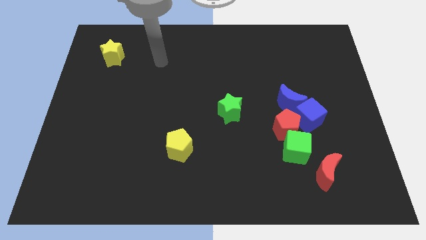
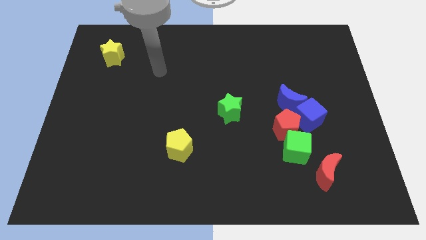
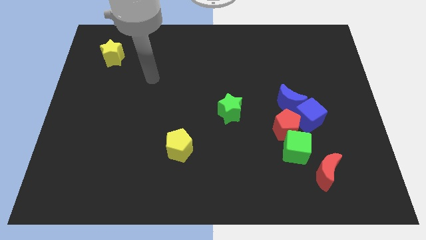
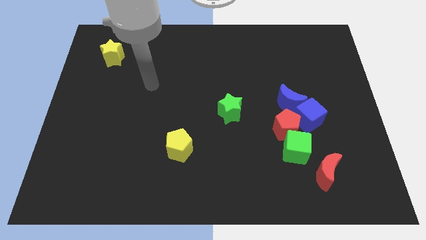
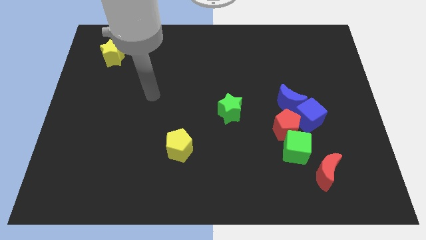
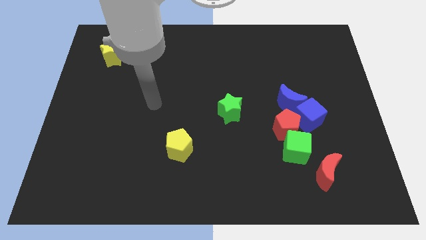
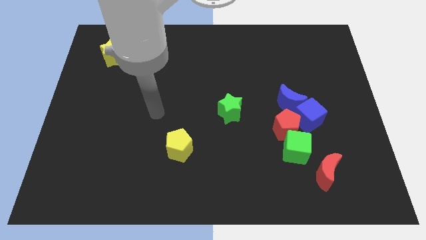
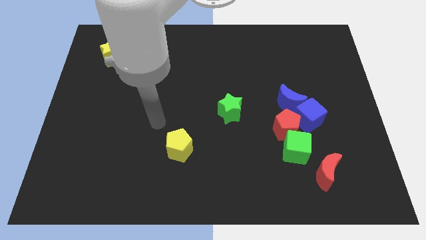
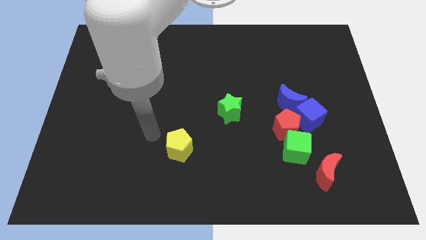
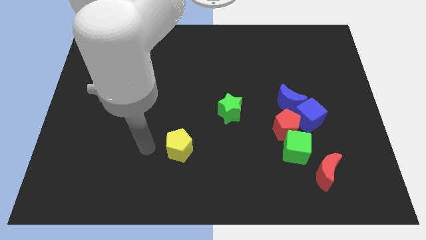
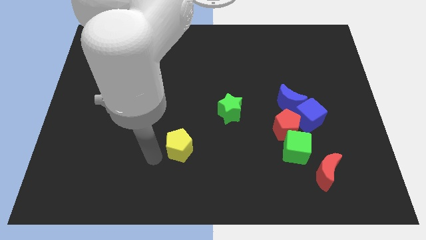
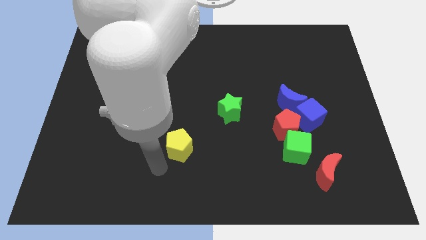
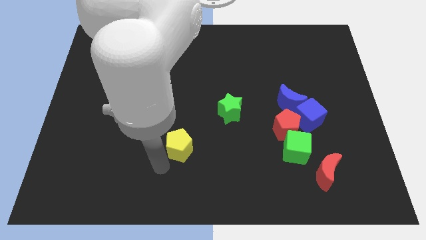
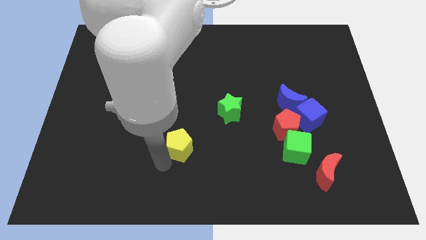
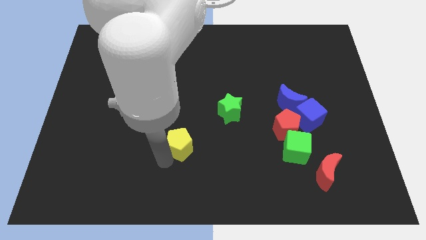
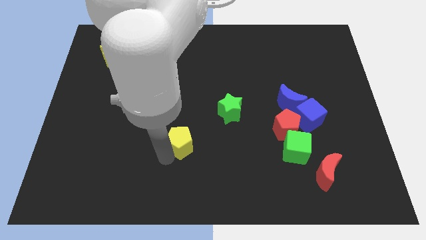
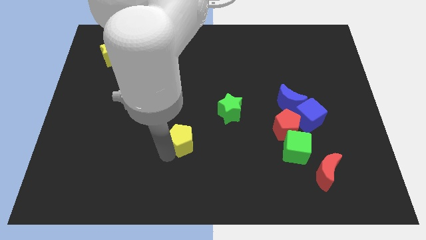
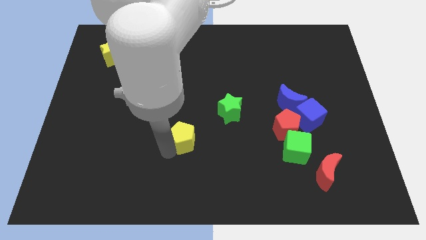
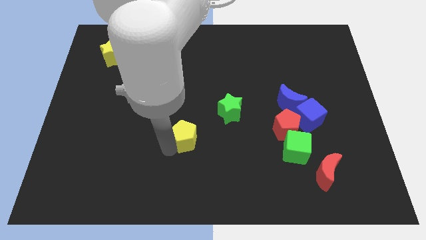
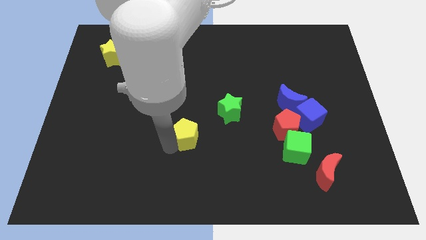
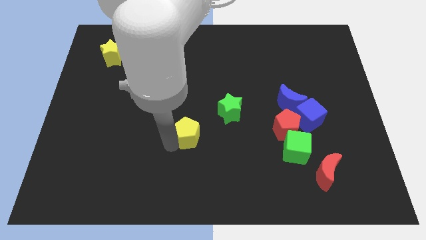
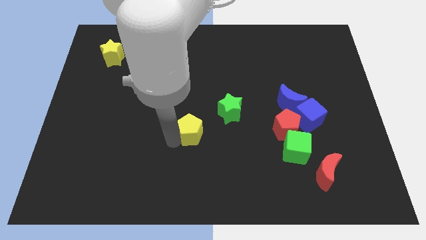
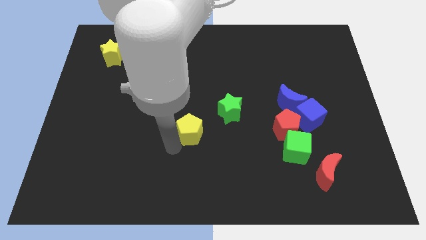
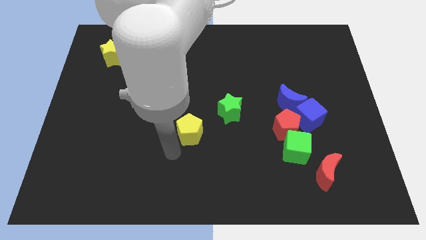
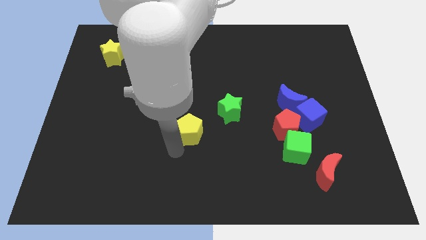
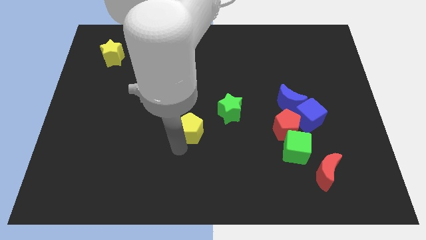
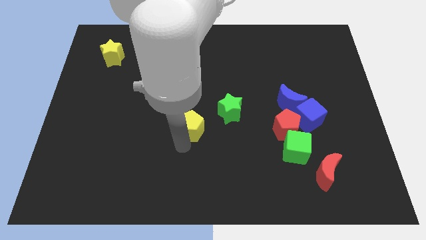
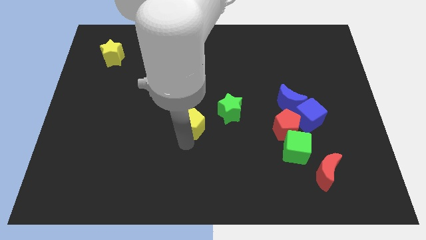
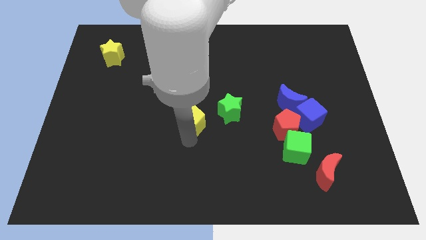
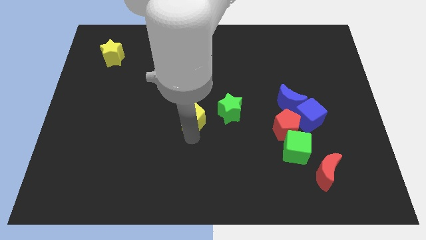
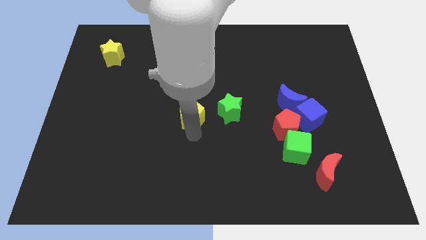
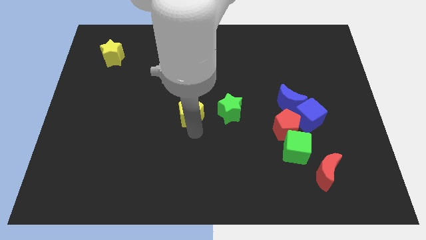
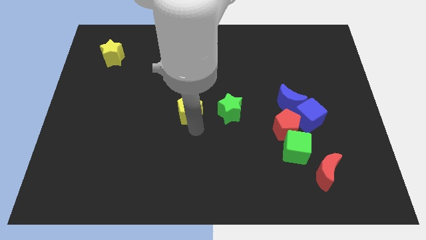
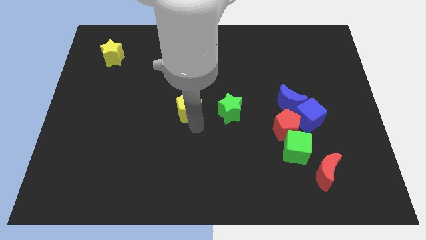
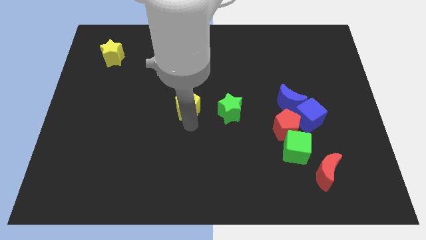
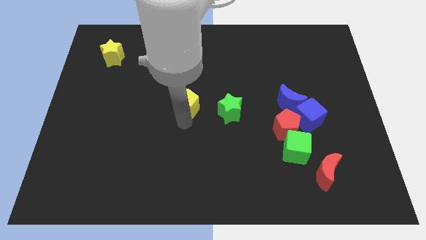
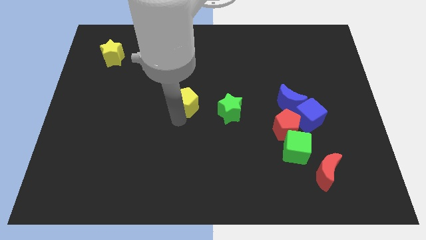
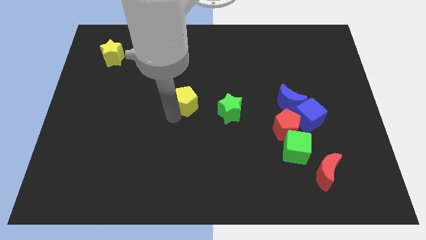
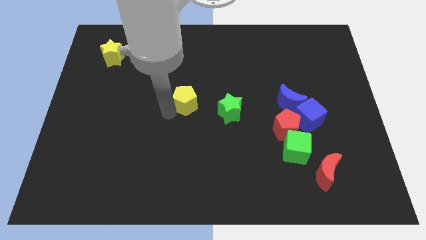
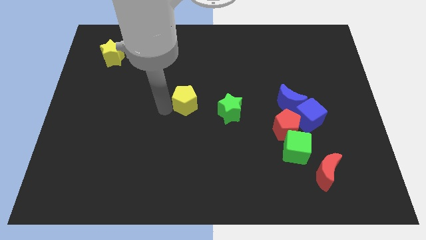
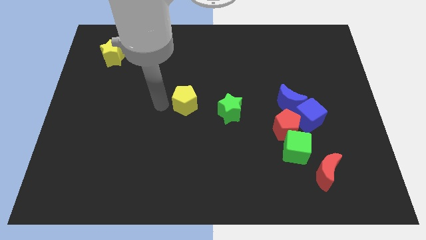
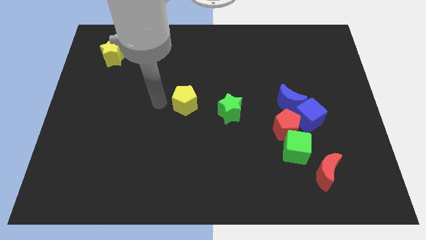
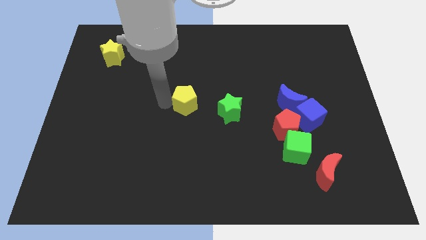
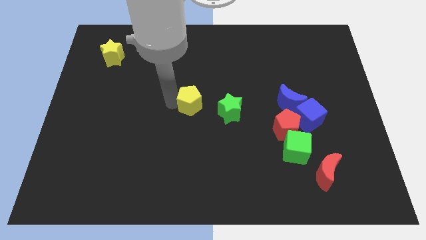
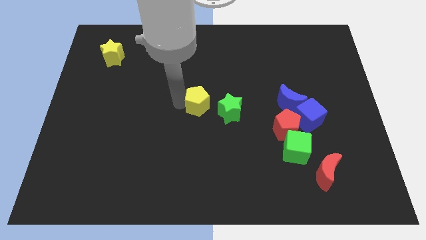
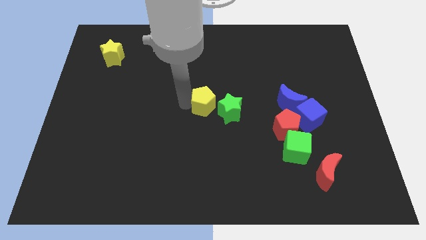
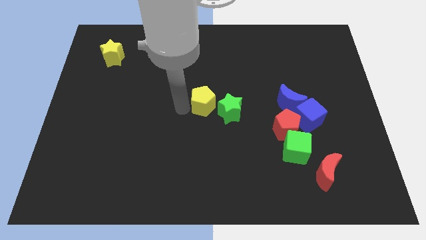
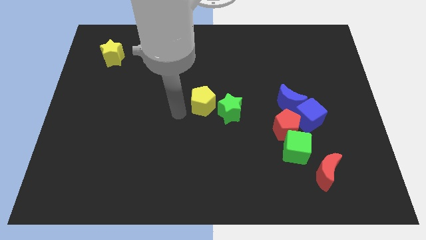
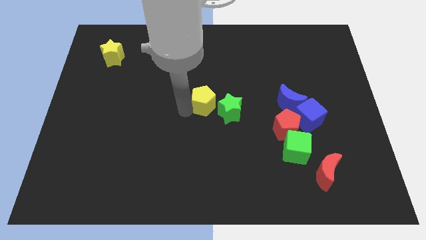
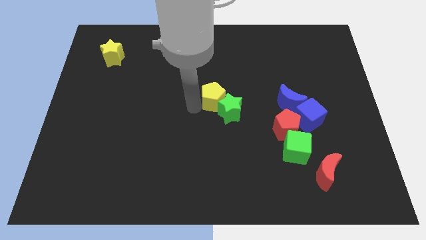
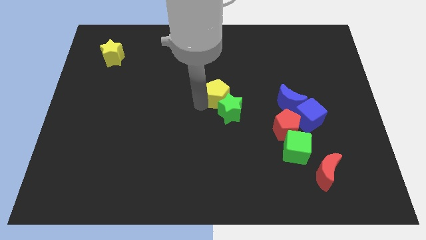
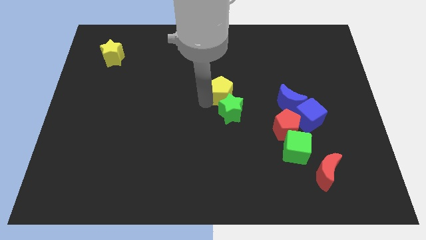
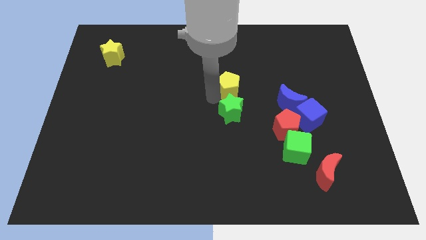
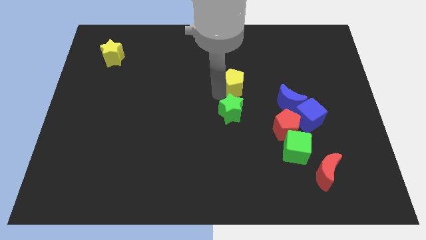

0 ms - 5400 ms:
move the yellow pentagon upwards and then right

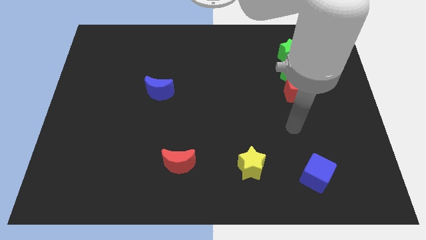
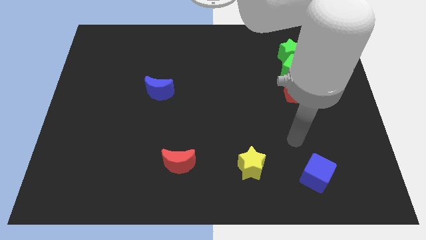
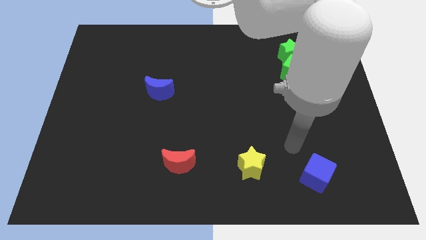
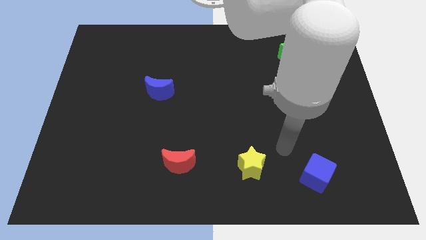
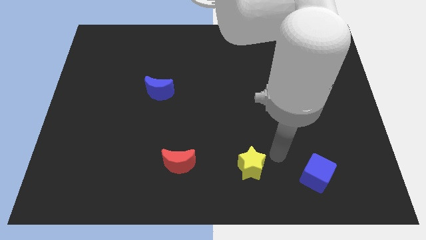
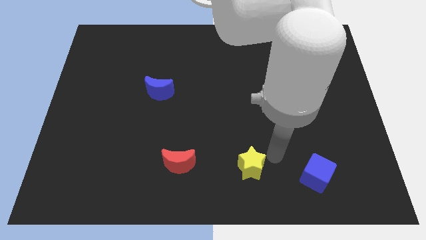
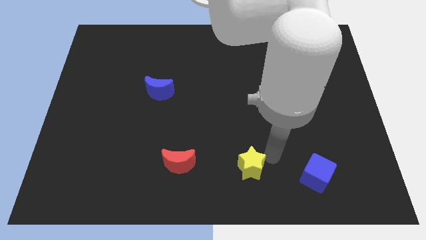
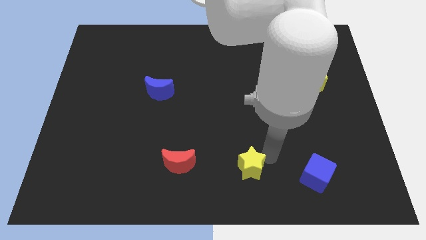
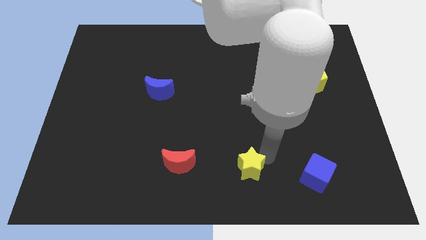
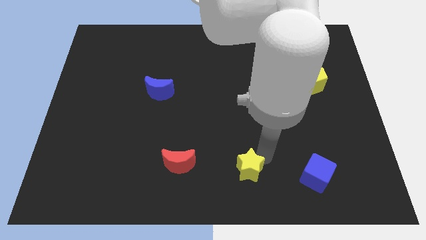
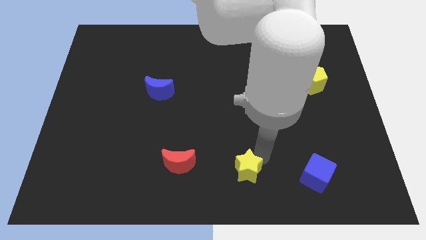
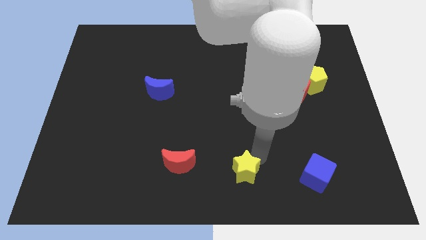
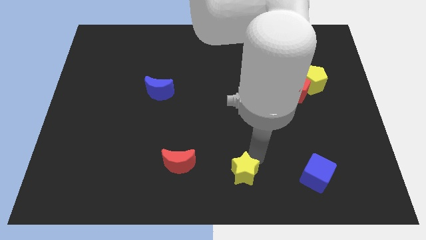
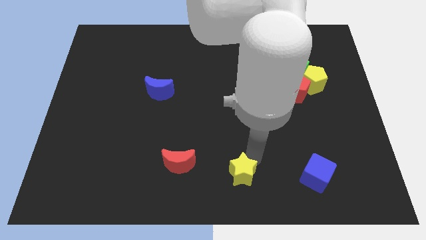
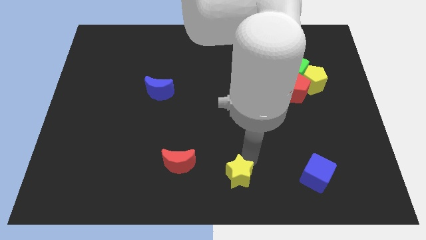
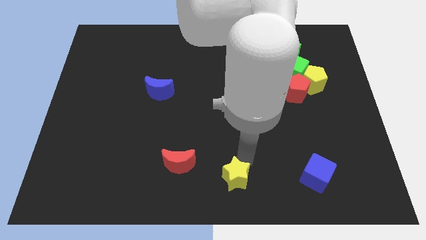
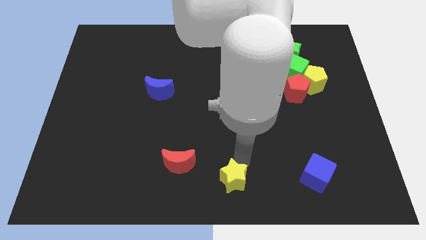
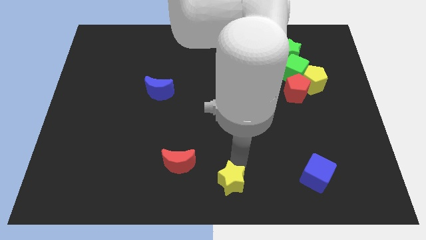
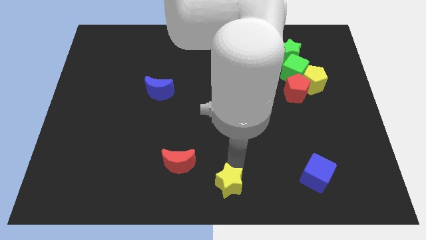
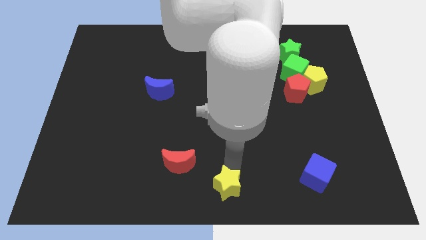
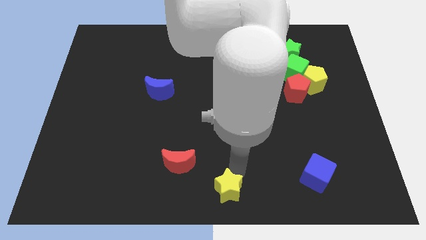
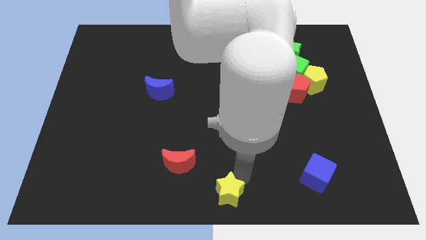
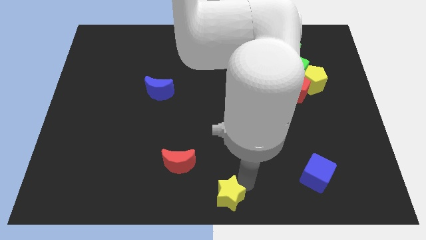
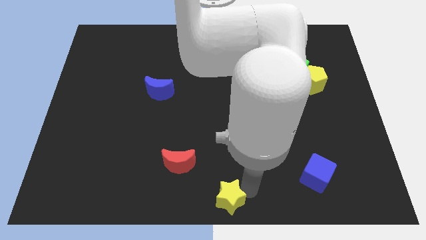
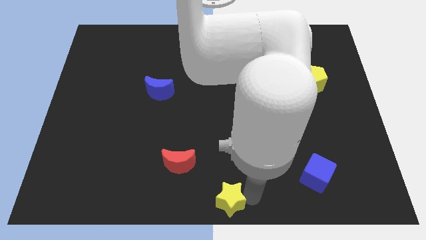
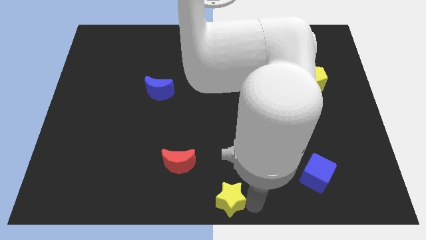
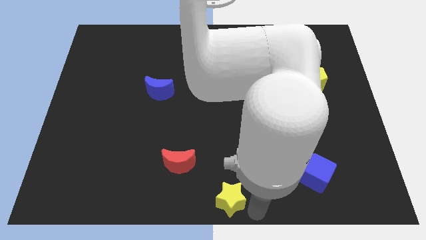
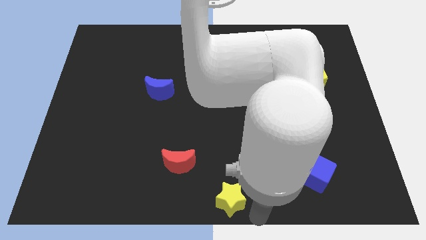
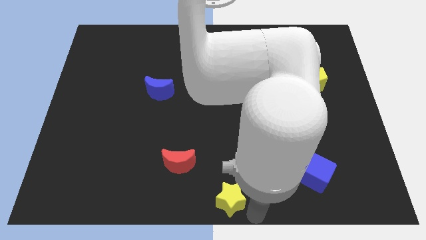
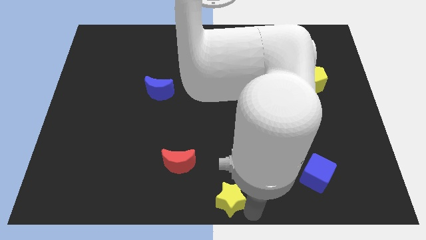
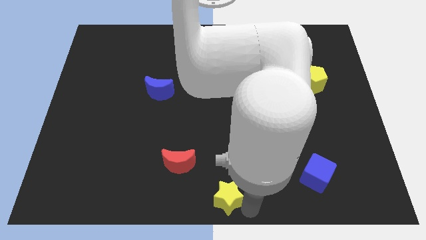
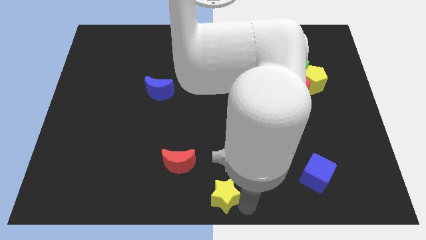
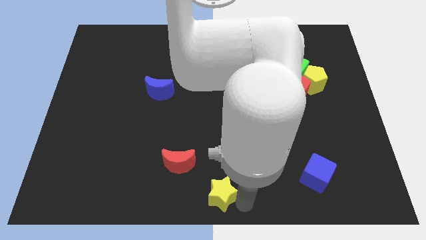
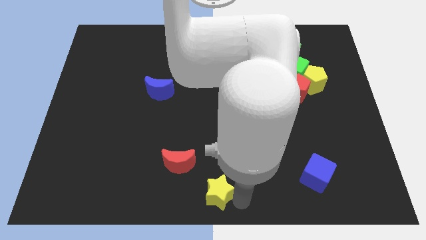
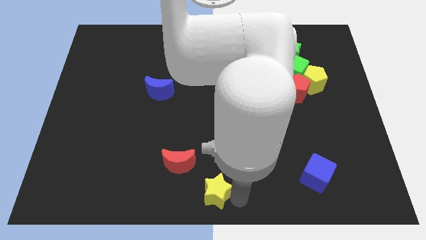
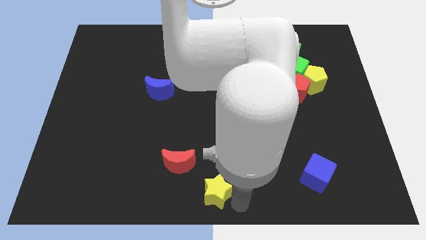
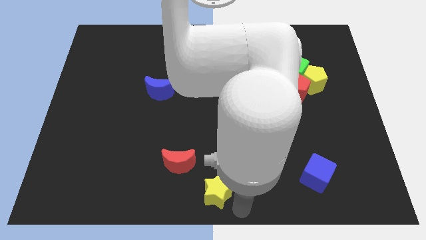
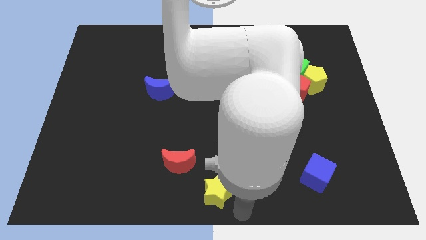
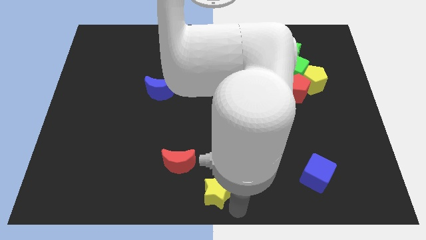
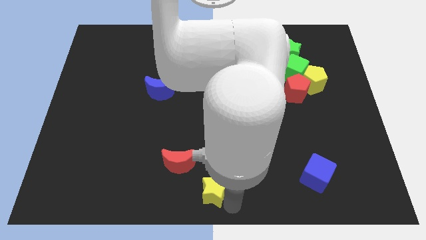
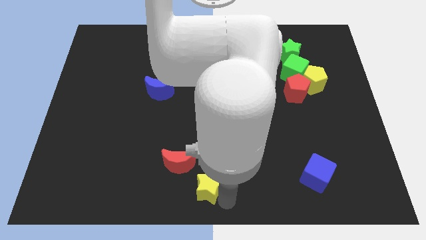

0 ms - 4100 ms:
move the yellow star to the left slightly
